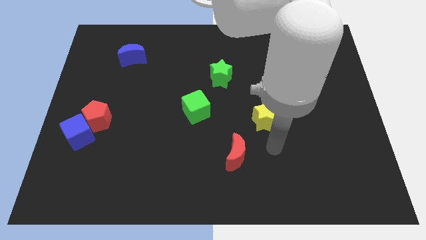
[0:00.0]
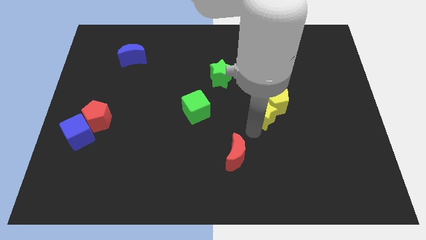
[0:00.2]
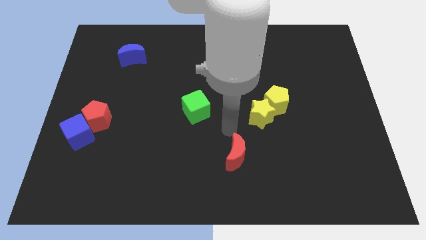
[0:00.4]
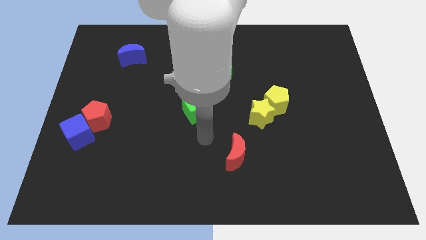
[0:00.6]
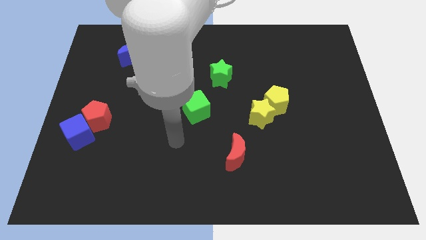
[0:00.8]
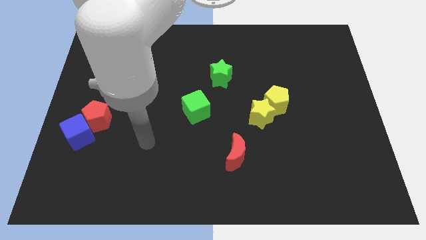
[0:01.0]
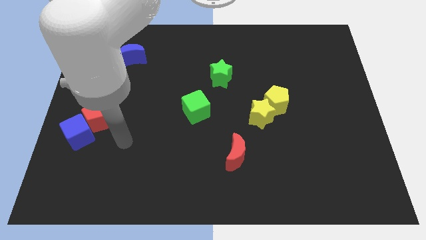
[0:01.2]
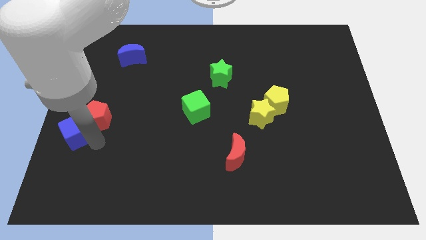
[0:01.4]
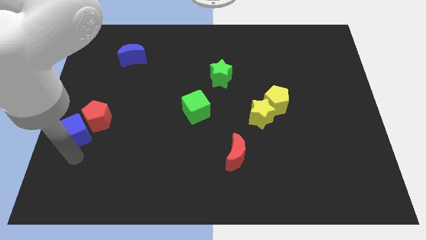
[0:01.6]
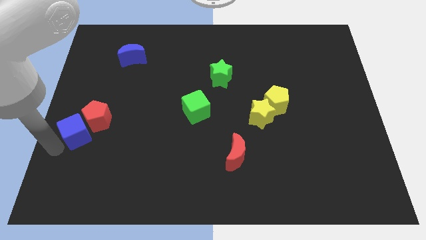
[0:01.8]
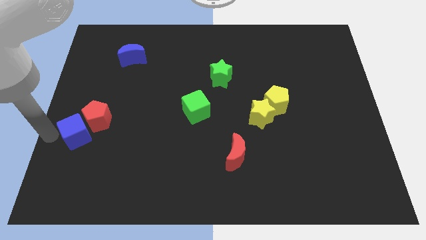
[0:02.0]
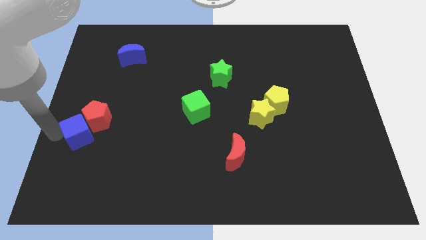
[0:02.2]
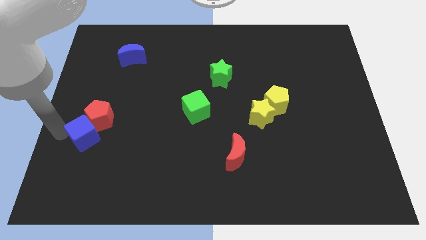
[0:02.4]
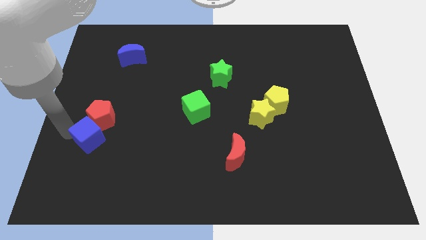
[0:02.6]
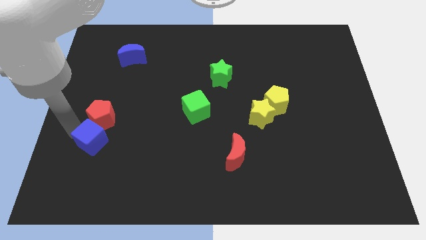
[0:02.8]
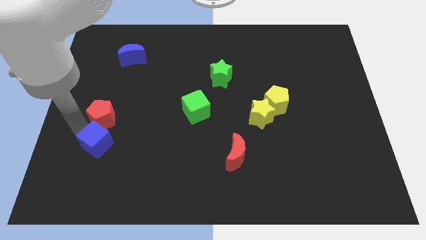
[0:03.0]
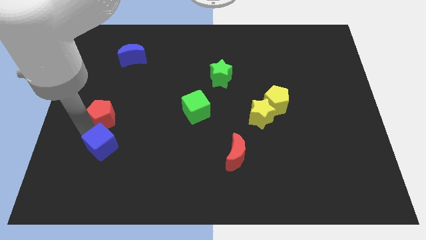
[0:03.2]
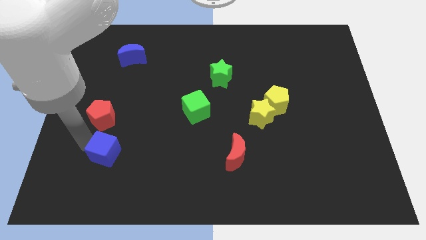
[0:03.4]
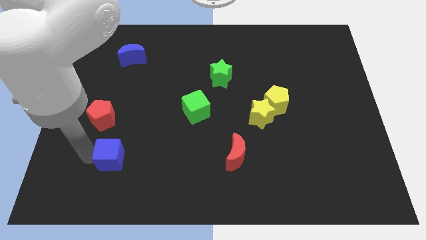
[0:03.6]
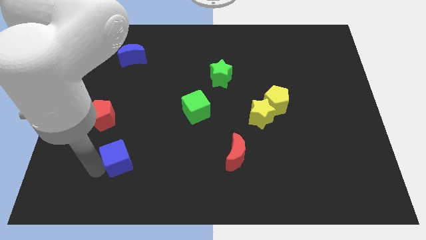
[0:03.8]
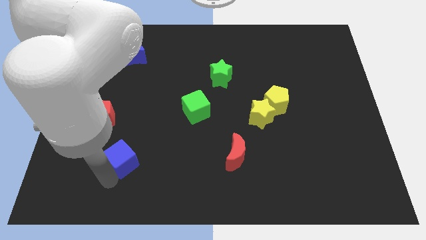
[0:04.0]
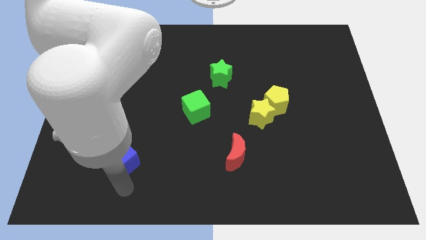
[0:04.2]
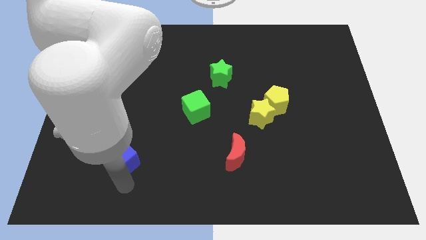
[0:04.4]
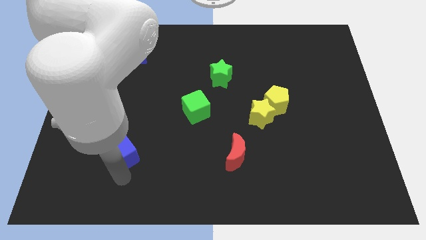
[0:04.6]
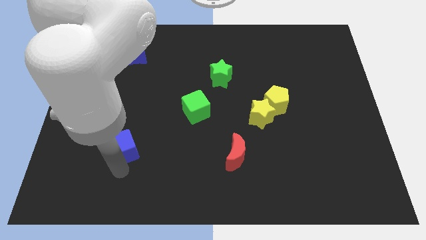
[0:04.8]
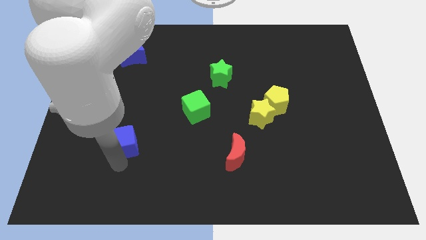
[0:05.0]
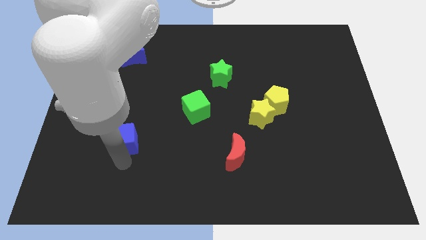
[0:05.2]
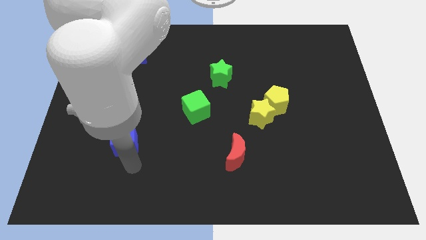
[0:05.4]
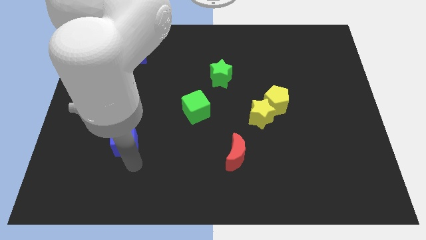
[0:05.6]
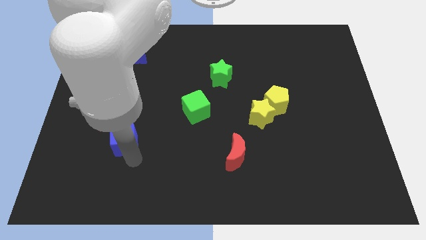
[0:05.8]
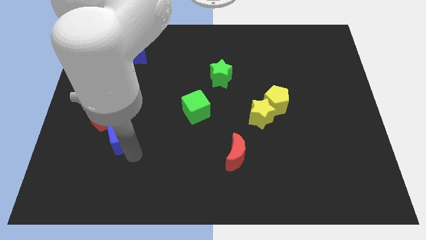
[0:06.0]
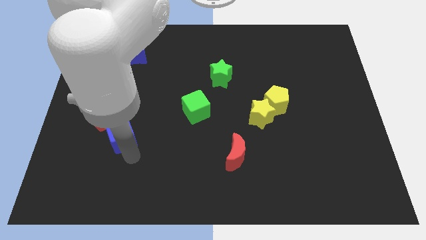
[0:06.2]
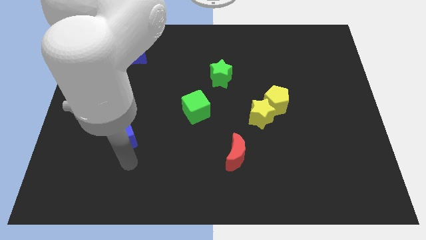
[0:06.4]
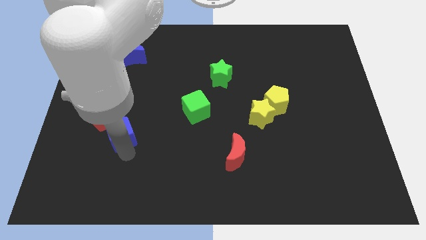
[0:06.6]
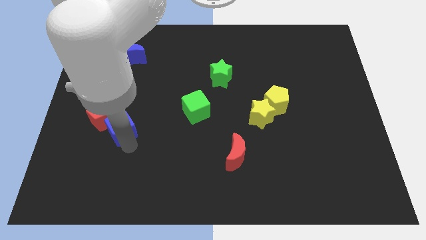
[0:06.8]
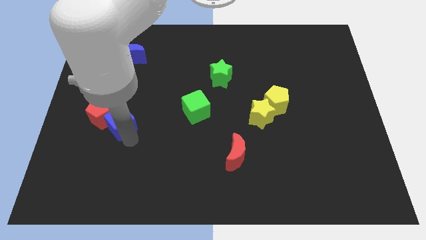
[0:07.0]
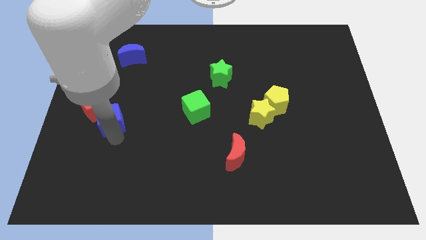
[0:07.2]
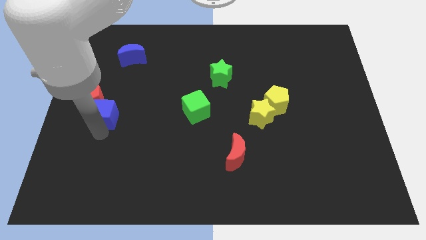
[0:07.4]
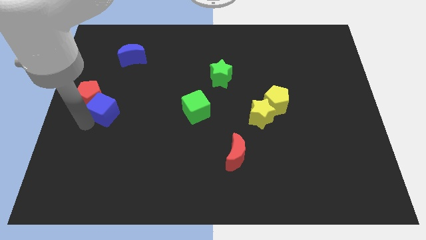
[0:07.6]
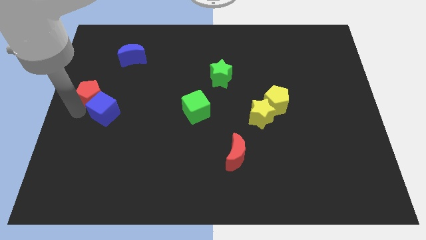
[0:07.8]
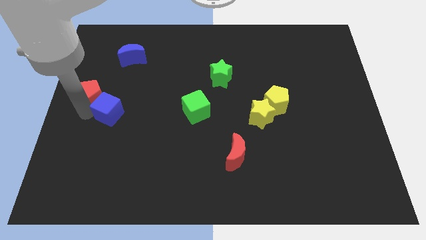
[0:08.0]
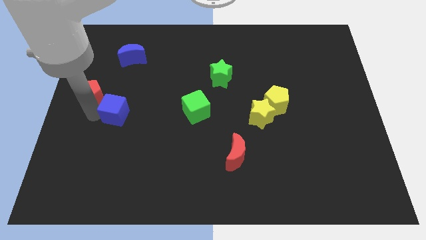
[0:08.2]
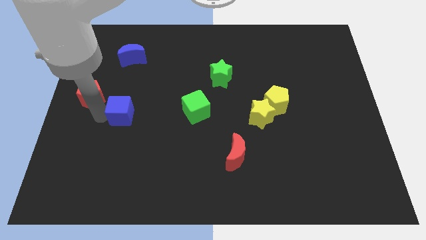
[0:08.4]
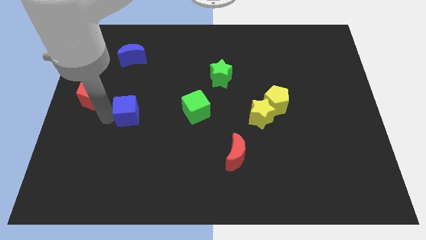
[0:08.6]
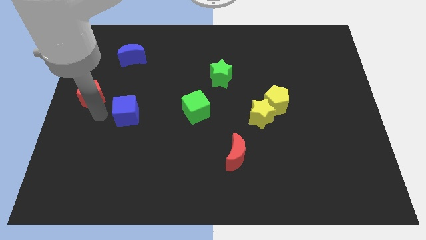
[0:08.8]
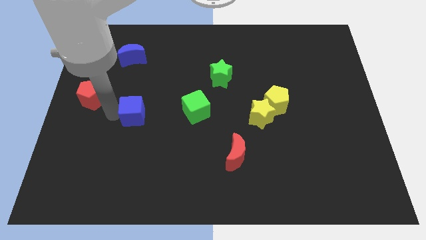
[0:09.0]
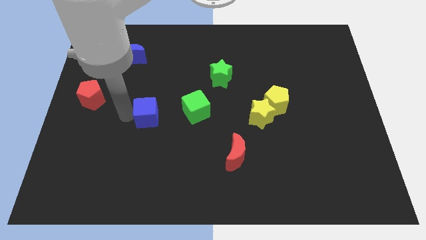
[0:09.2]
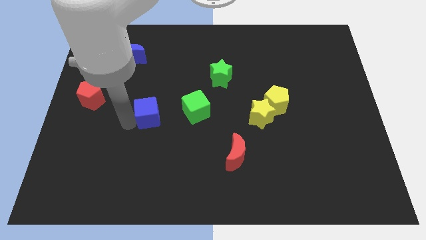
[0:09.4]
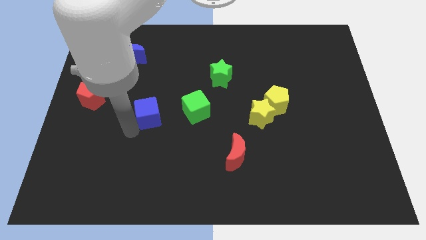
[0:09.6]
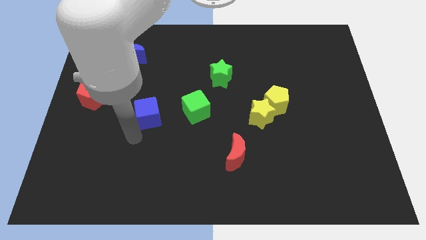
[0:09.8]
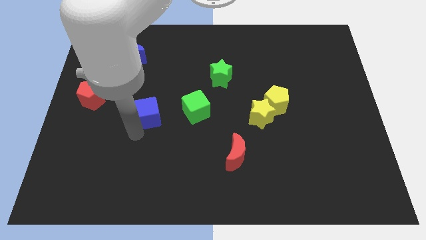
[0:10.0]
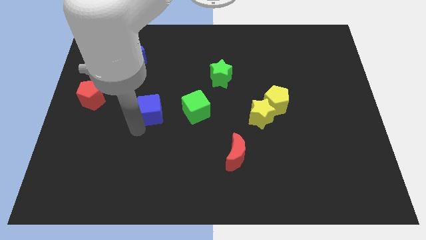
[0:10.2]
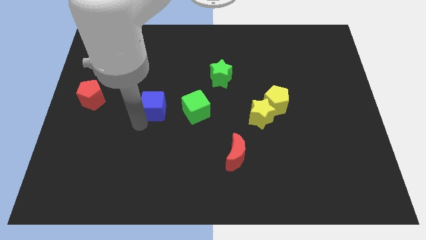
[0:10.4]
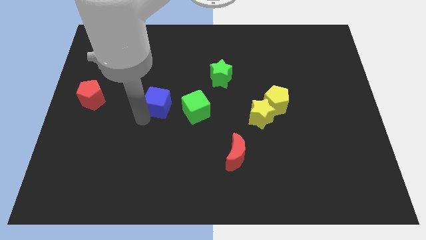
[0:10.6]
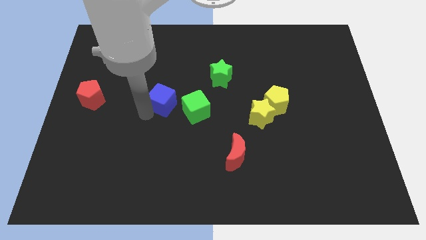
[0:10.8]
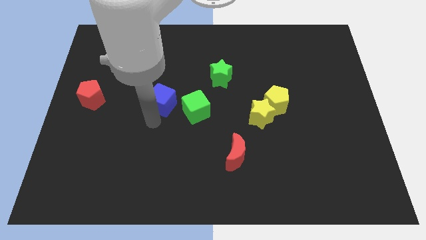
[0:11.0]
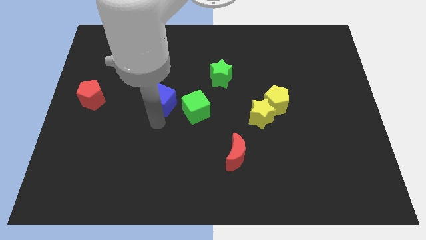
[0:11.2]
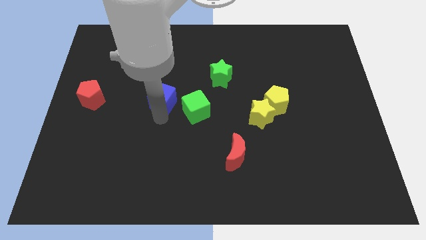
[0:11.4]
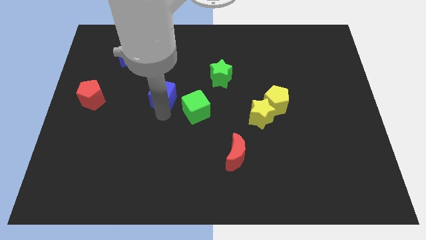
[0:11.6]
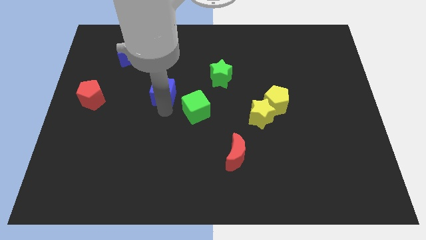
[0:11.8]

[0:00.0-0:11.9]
push the blue cube upwards and to the right

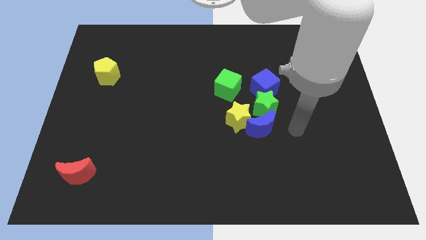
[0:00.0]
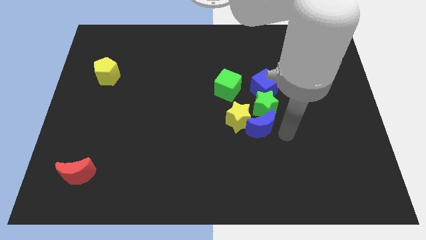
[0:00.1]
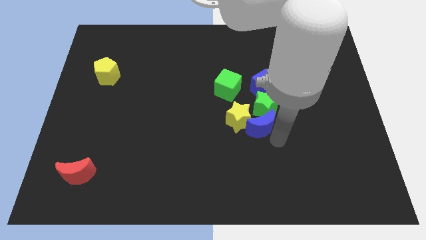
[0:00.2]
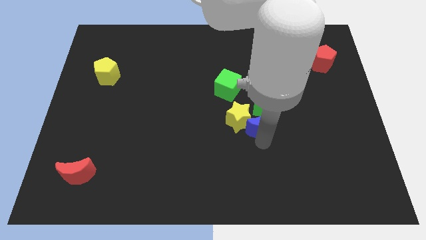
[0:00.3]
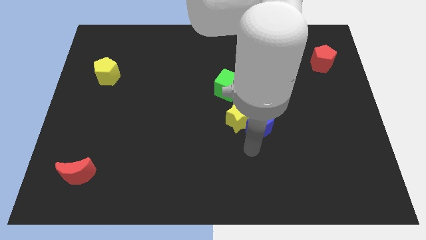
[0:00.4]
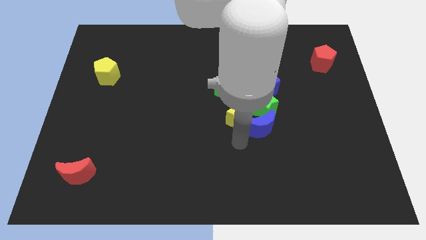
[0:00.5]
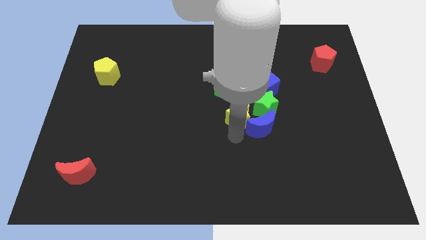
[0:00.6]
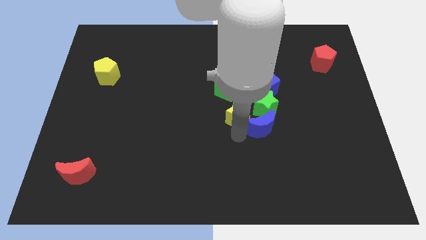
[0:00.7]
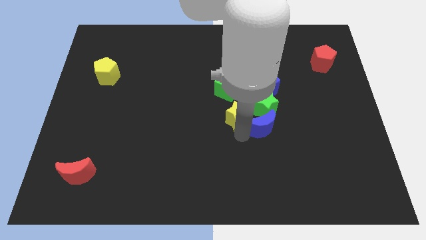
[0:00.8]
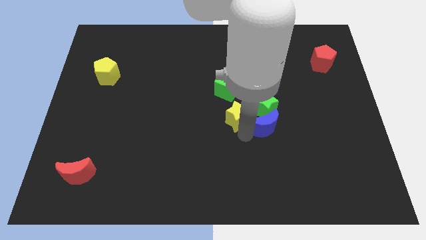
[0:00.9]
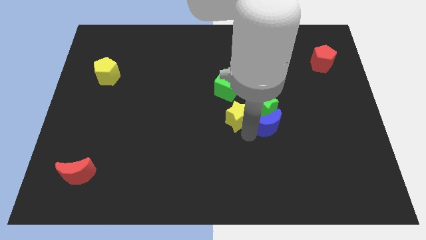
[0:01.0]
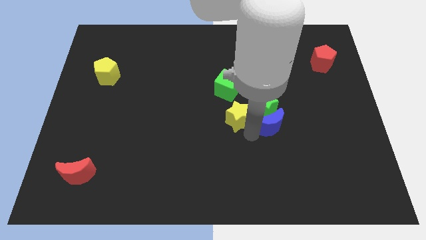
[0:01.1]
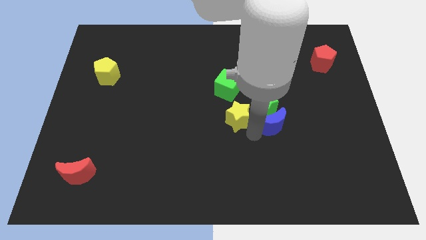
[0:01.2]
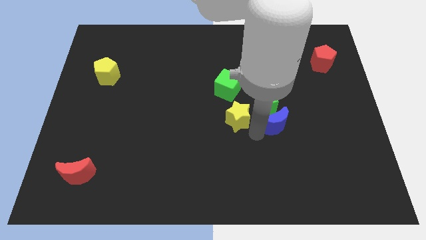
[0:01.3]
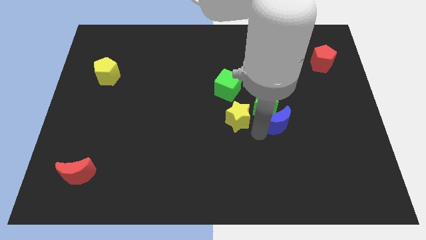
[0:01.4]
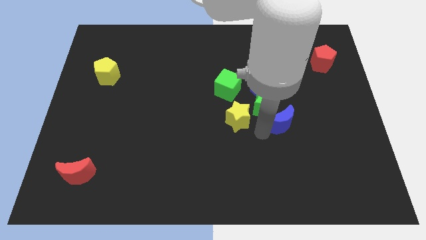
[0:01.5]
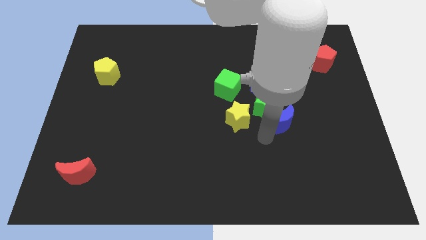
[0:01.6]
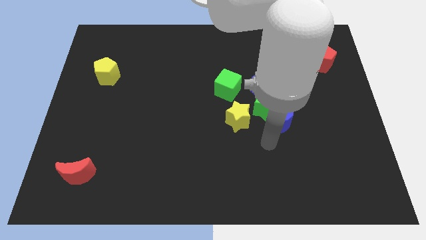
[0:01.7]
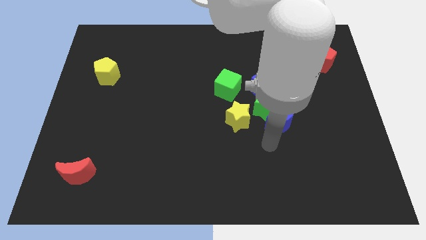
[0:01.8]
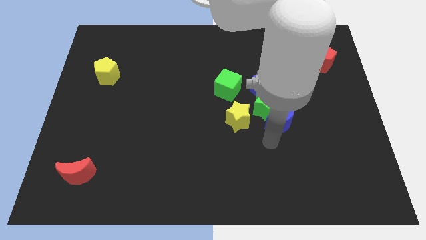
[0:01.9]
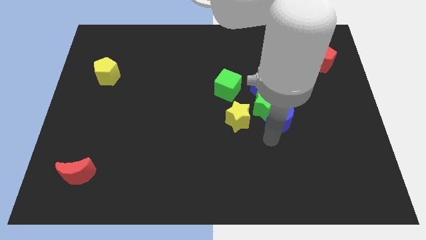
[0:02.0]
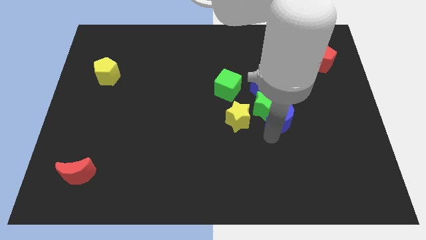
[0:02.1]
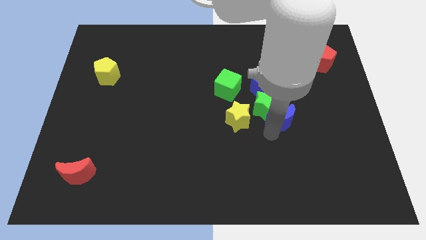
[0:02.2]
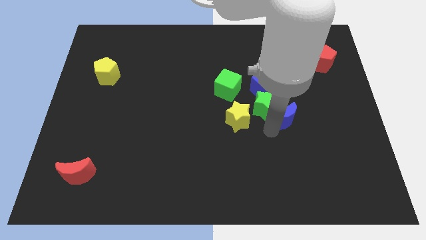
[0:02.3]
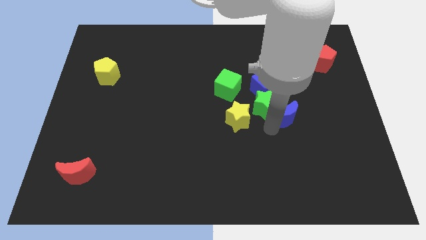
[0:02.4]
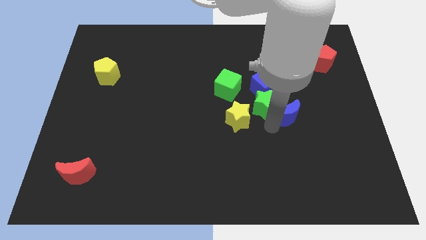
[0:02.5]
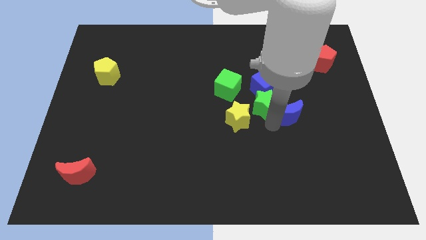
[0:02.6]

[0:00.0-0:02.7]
slightly move the blue moon upwards and then right
